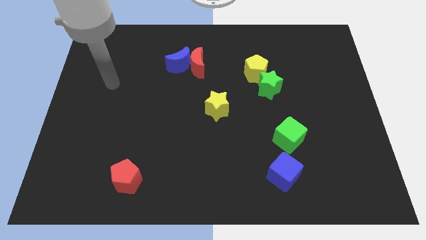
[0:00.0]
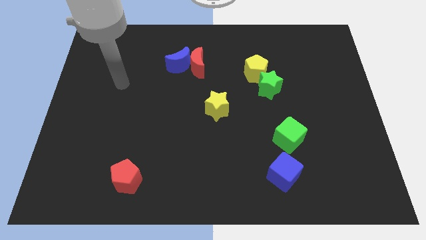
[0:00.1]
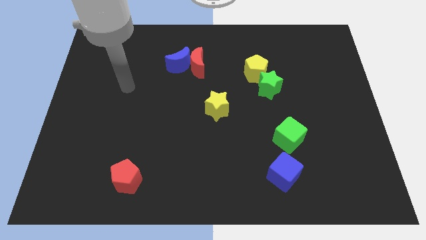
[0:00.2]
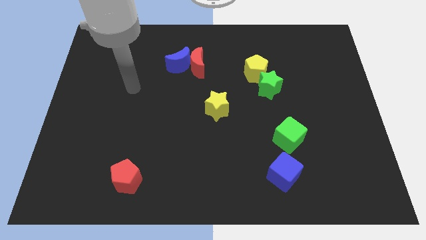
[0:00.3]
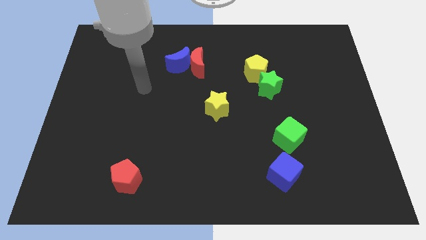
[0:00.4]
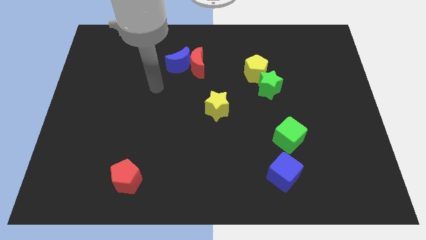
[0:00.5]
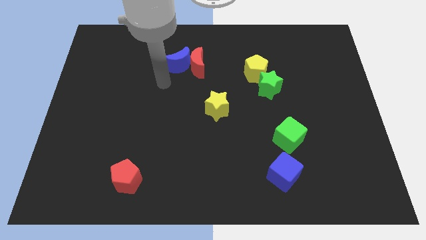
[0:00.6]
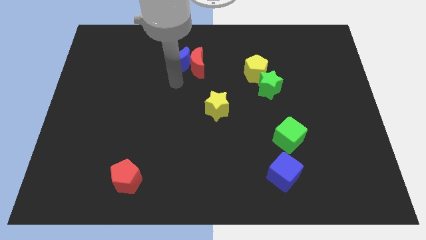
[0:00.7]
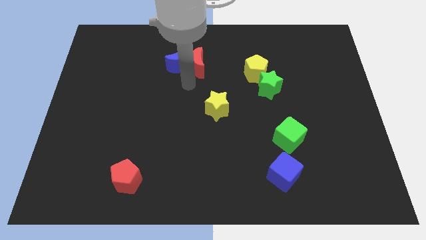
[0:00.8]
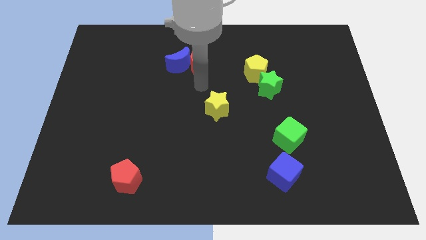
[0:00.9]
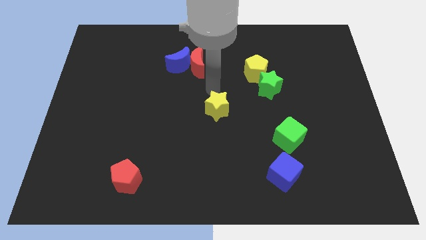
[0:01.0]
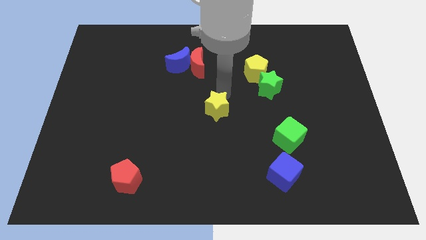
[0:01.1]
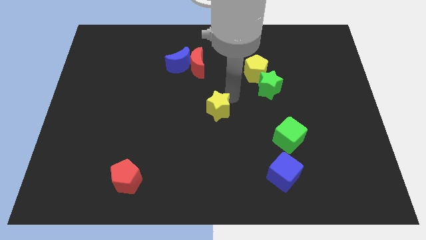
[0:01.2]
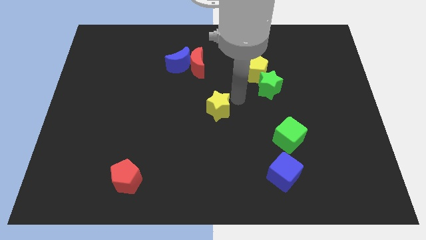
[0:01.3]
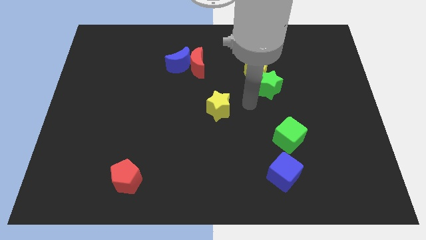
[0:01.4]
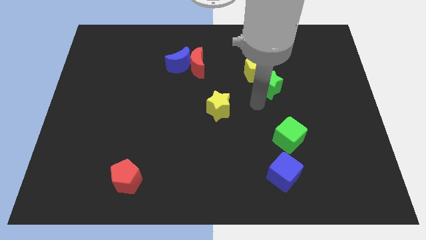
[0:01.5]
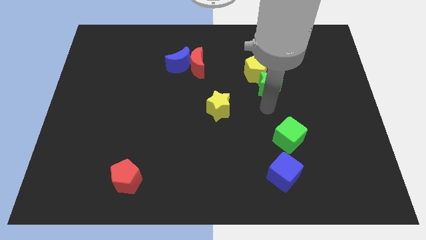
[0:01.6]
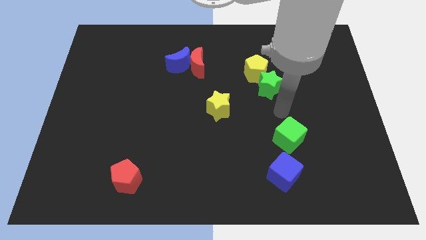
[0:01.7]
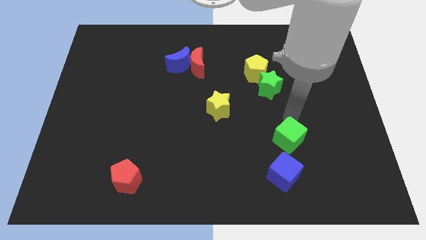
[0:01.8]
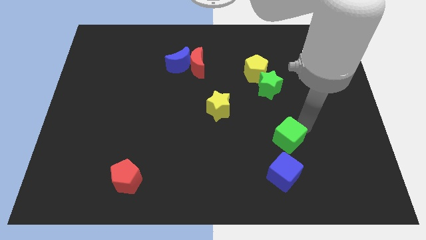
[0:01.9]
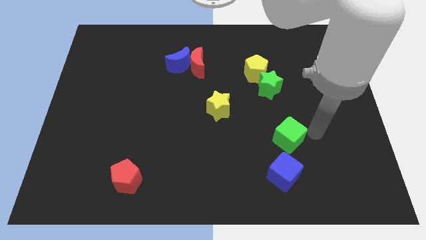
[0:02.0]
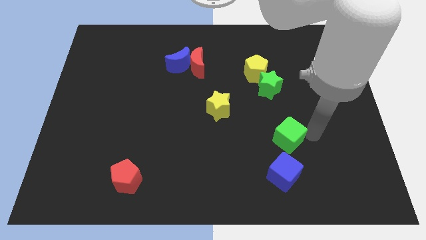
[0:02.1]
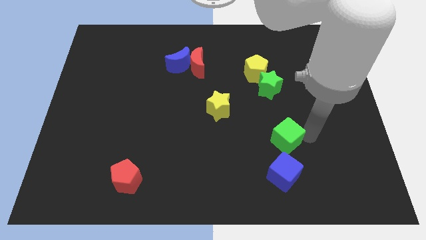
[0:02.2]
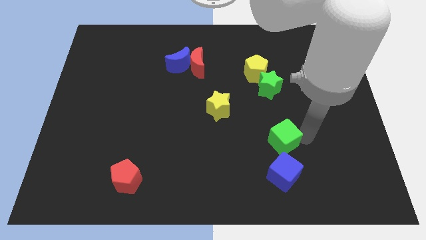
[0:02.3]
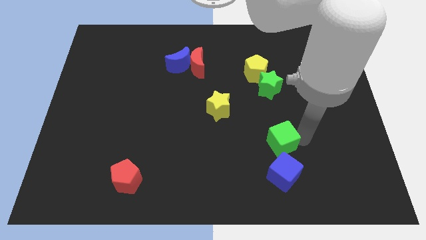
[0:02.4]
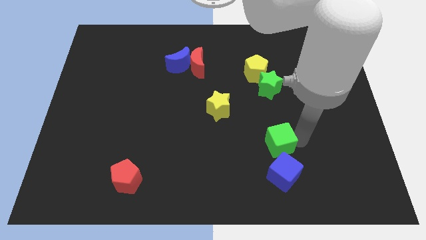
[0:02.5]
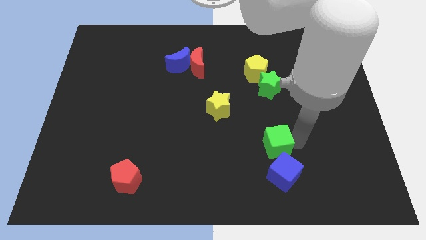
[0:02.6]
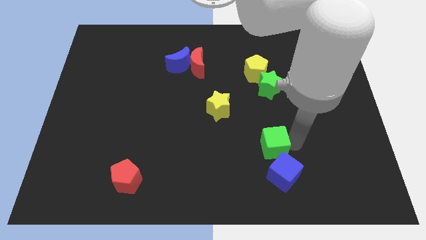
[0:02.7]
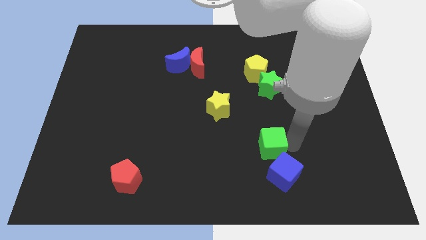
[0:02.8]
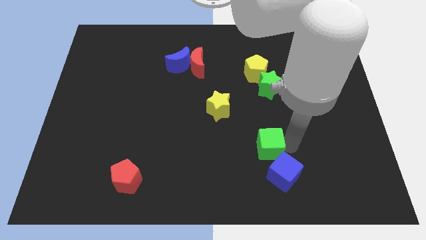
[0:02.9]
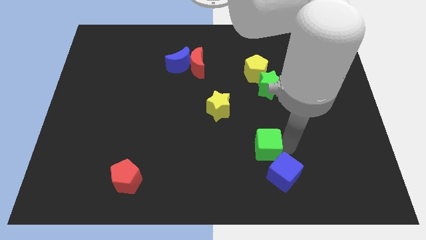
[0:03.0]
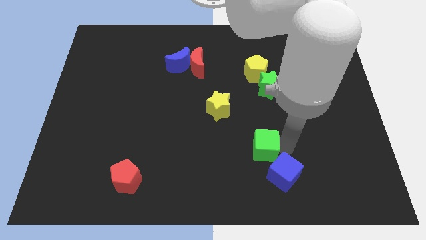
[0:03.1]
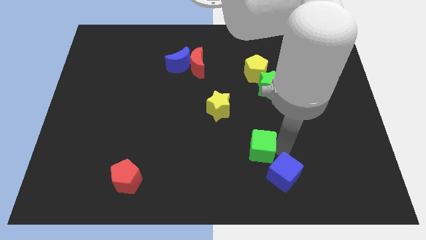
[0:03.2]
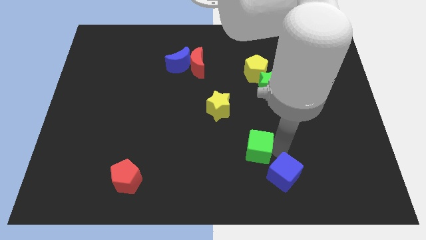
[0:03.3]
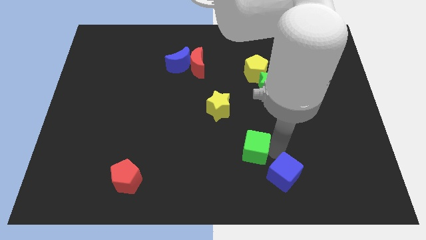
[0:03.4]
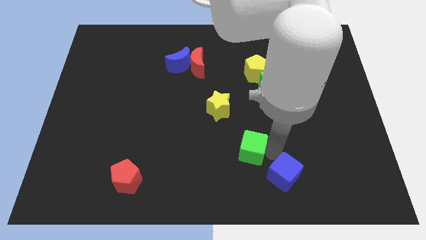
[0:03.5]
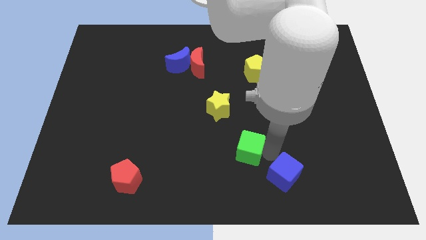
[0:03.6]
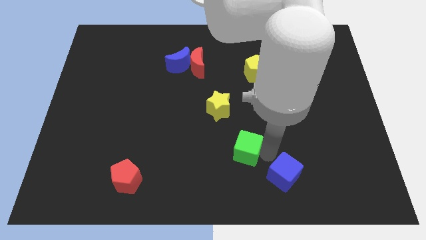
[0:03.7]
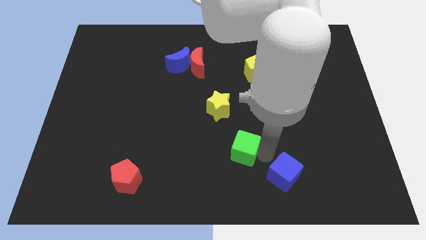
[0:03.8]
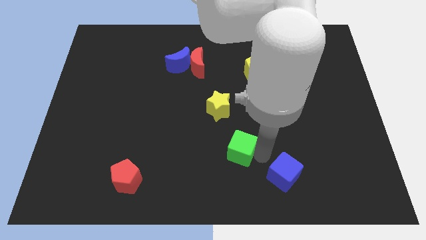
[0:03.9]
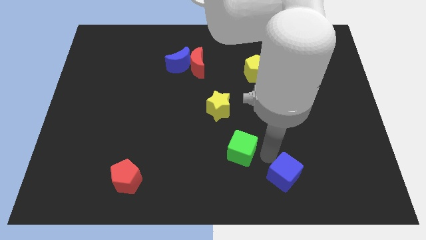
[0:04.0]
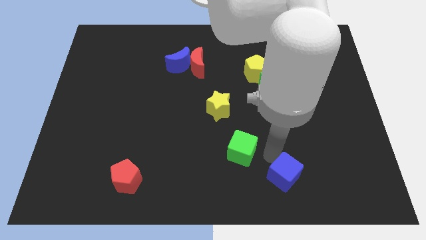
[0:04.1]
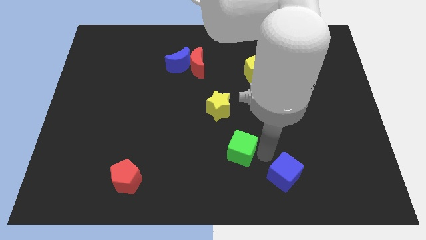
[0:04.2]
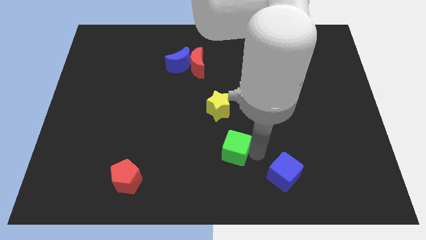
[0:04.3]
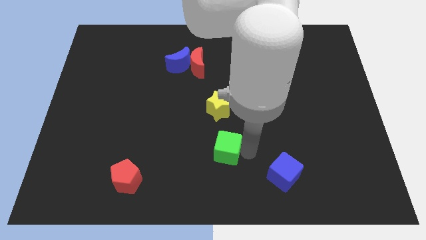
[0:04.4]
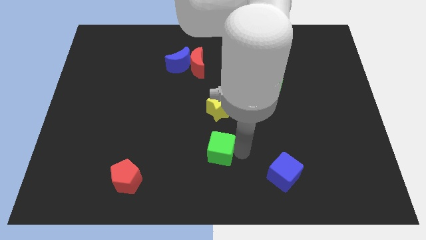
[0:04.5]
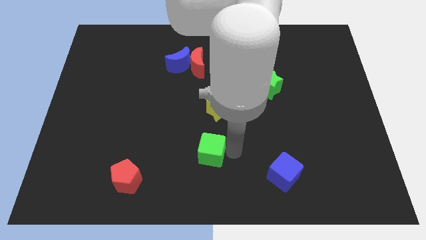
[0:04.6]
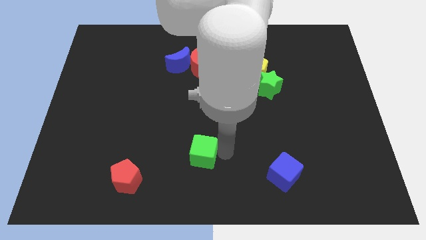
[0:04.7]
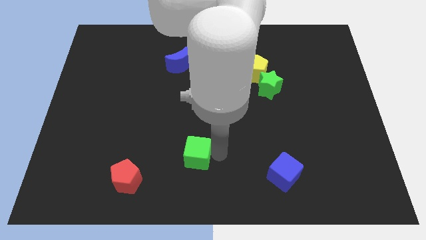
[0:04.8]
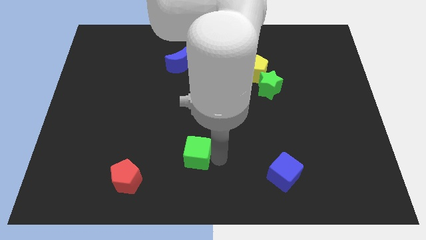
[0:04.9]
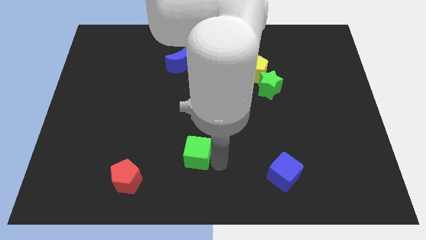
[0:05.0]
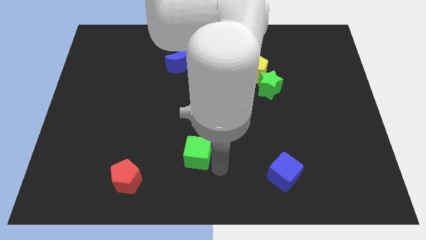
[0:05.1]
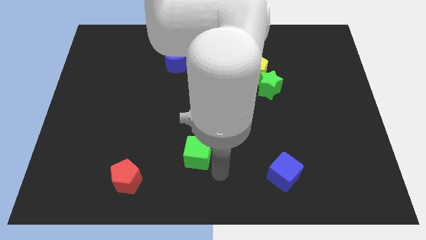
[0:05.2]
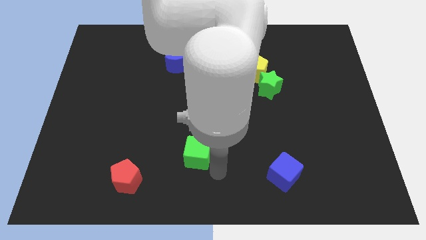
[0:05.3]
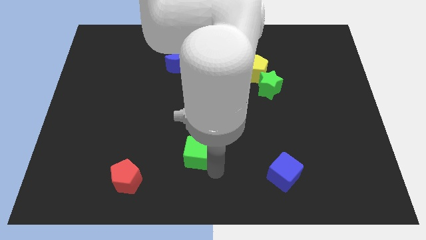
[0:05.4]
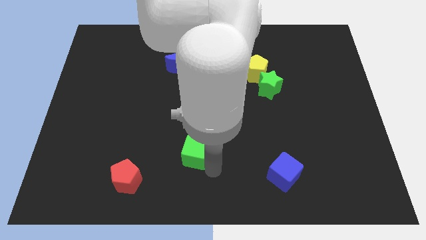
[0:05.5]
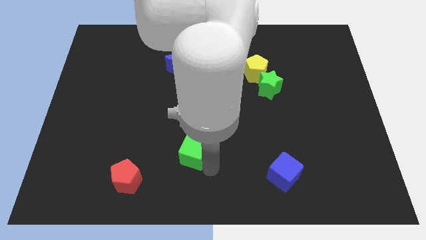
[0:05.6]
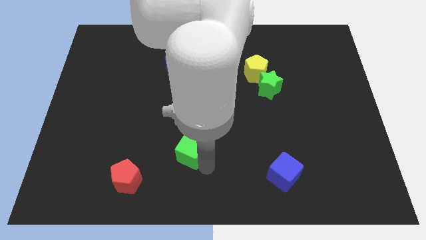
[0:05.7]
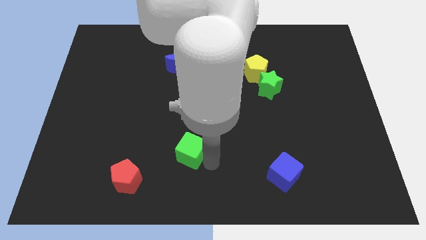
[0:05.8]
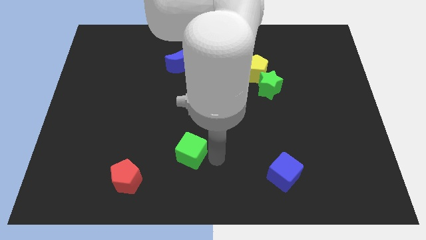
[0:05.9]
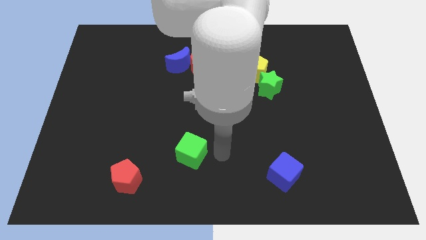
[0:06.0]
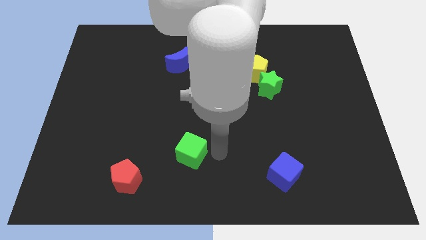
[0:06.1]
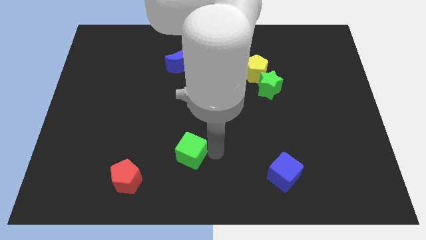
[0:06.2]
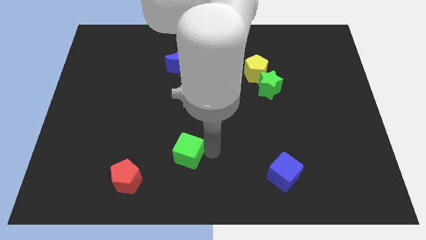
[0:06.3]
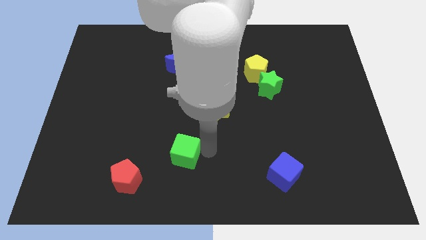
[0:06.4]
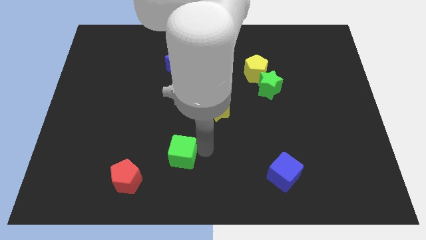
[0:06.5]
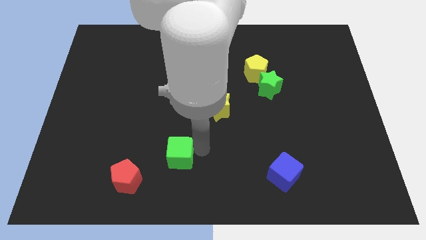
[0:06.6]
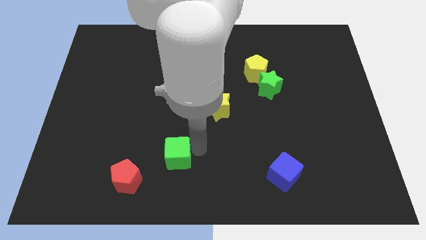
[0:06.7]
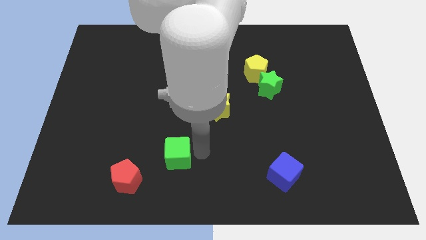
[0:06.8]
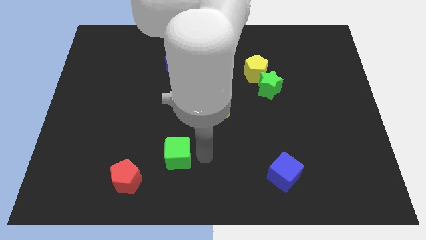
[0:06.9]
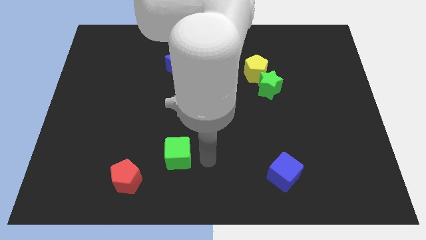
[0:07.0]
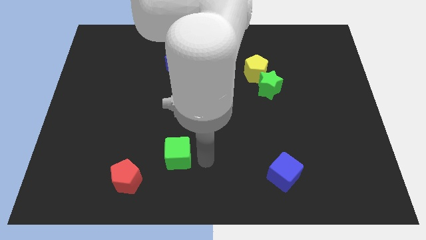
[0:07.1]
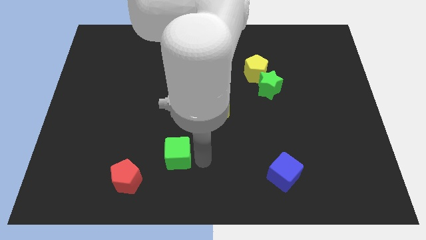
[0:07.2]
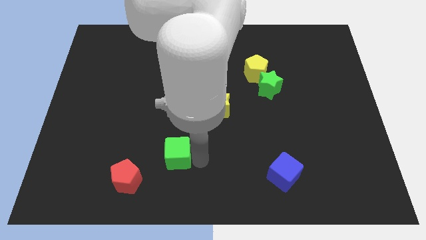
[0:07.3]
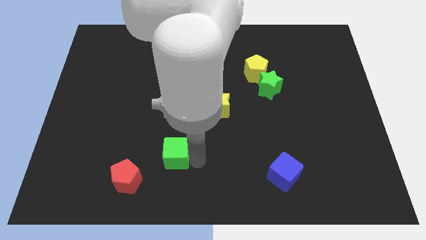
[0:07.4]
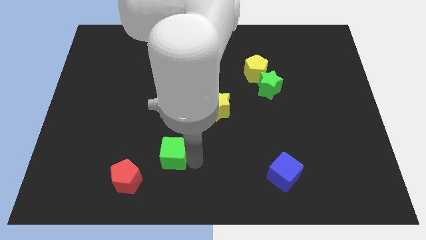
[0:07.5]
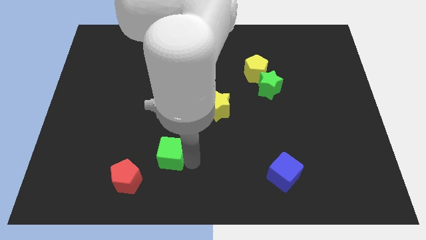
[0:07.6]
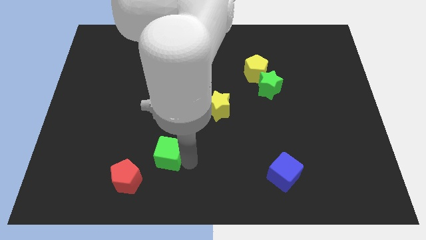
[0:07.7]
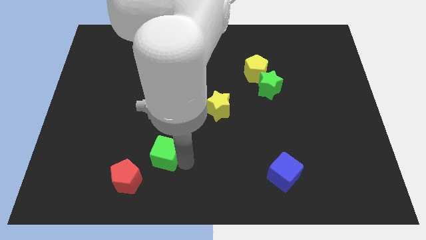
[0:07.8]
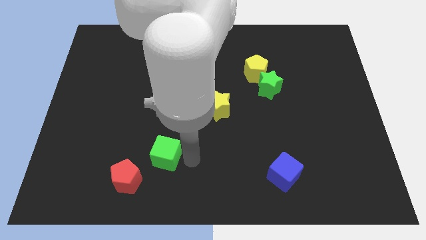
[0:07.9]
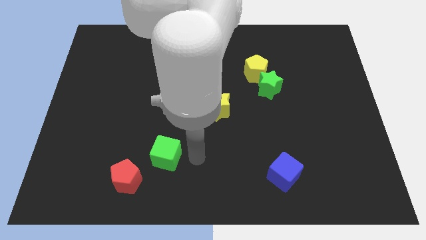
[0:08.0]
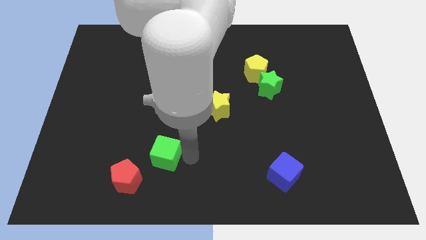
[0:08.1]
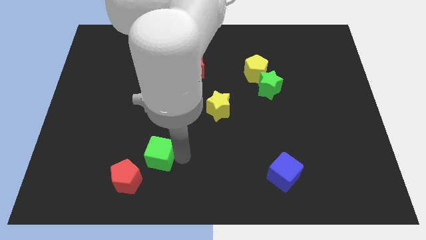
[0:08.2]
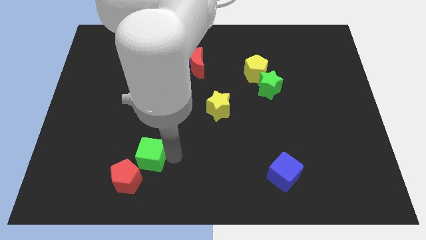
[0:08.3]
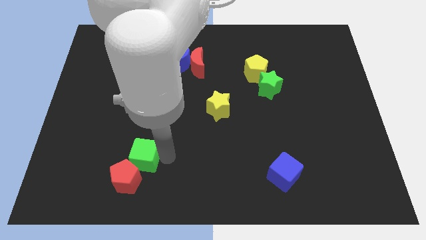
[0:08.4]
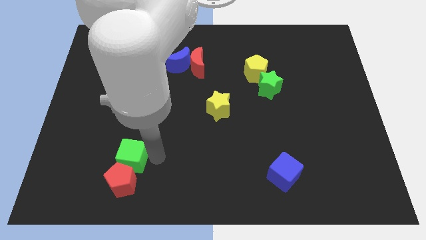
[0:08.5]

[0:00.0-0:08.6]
slide the green cube to the top left side of the red pentagon
